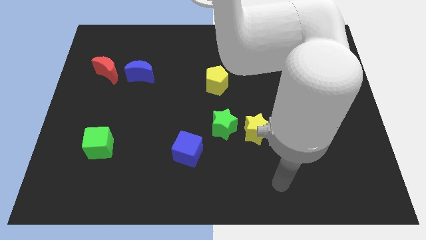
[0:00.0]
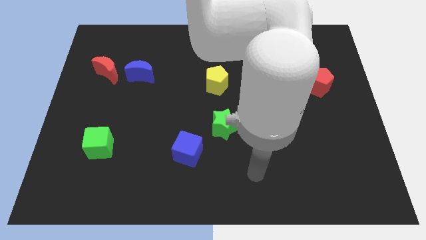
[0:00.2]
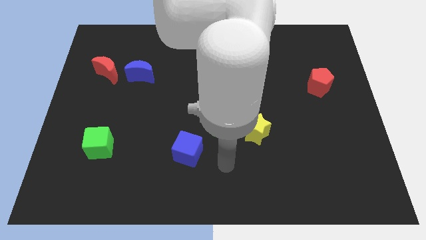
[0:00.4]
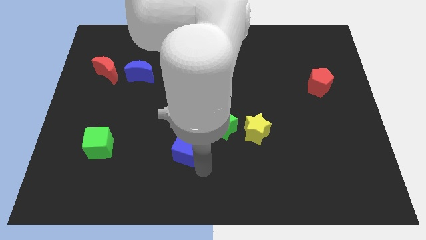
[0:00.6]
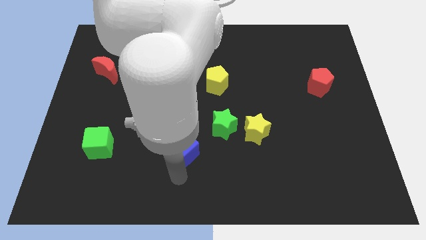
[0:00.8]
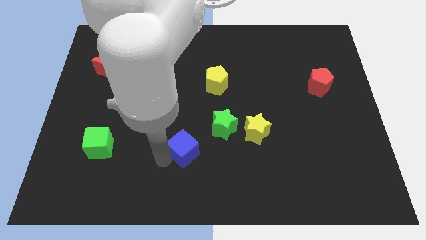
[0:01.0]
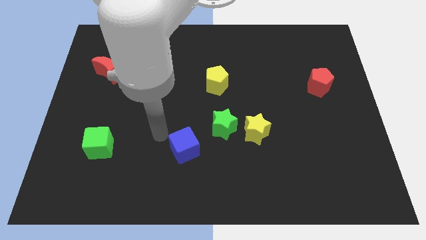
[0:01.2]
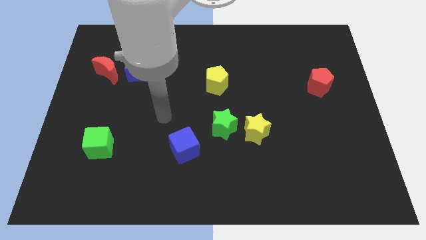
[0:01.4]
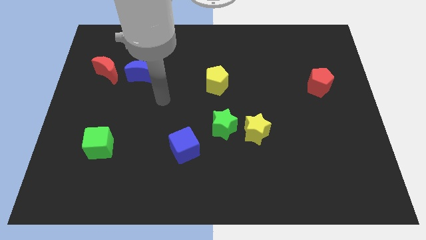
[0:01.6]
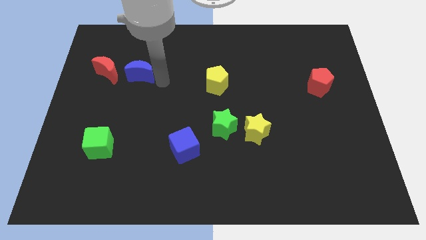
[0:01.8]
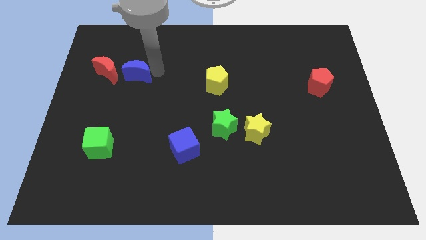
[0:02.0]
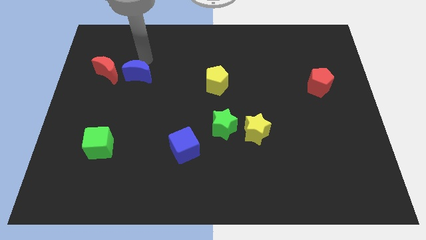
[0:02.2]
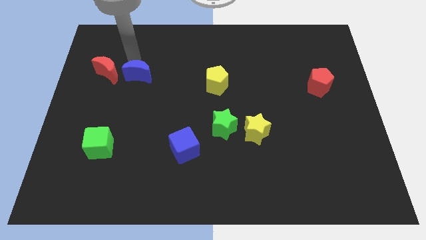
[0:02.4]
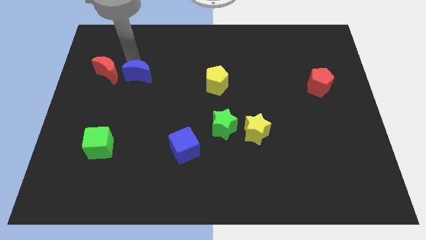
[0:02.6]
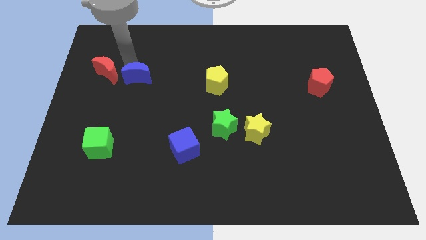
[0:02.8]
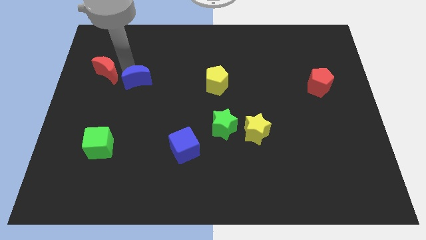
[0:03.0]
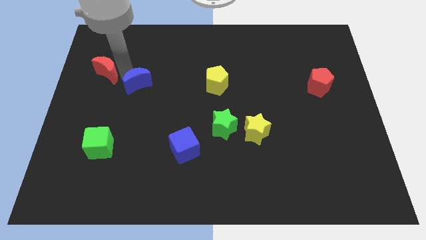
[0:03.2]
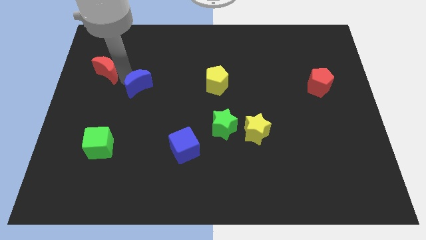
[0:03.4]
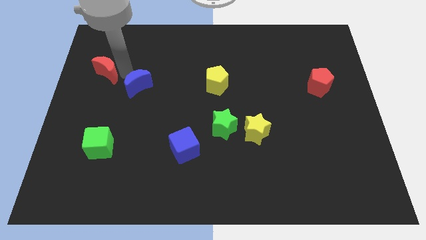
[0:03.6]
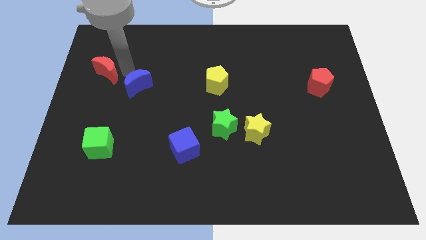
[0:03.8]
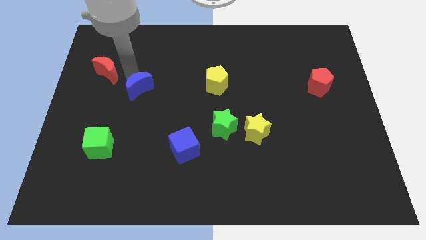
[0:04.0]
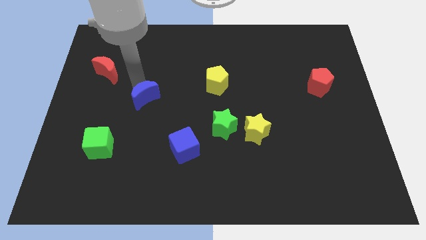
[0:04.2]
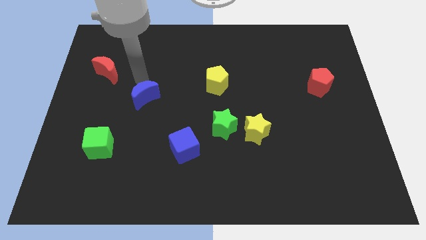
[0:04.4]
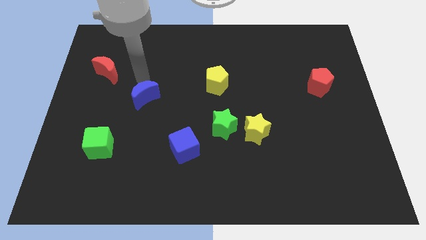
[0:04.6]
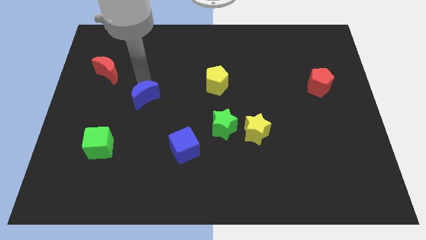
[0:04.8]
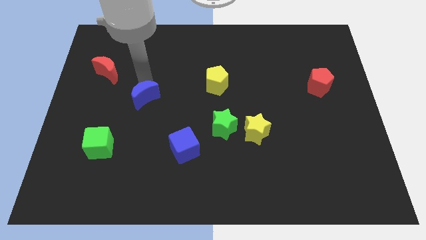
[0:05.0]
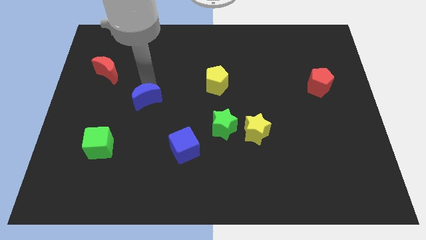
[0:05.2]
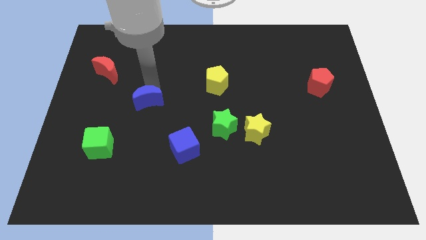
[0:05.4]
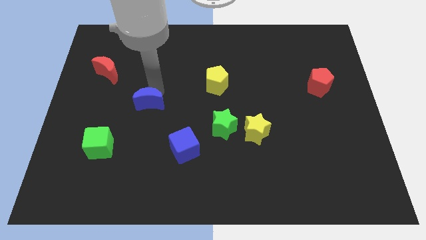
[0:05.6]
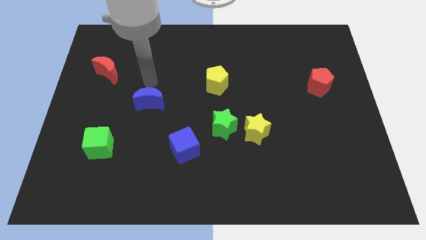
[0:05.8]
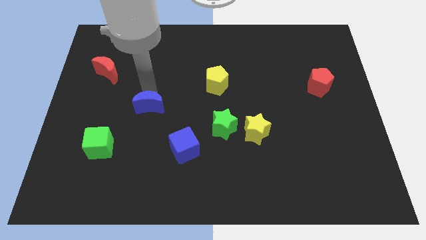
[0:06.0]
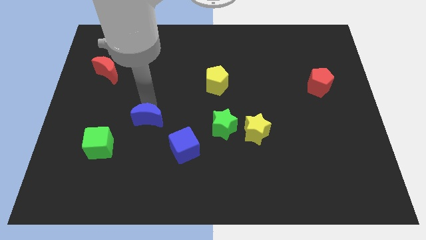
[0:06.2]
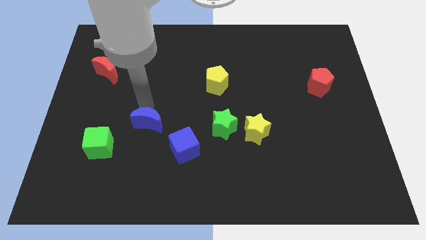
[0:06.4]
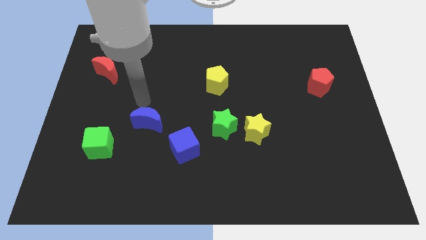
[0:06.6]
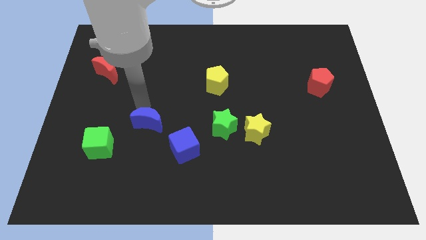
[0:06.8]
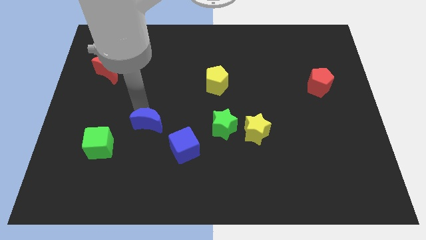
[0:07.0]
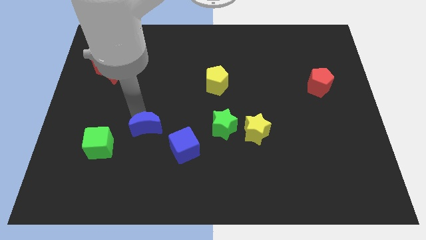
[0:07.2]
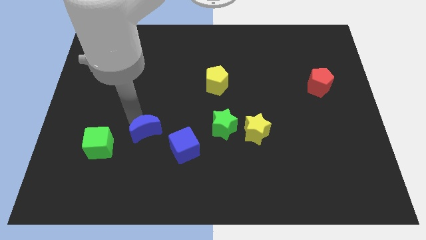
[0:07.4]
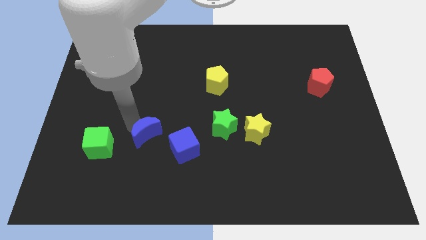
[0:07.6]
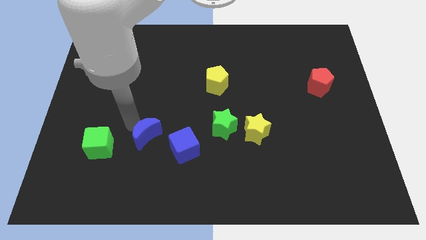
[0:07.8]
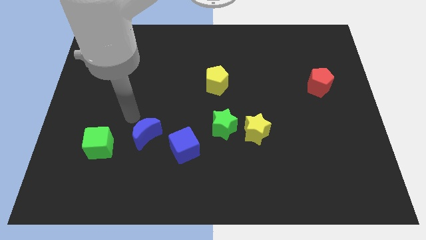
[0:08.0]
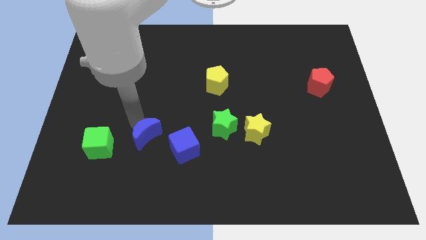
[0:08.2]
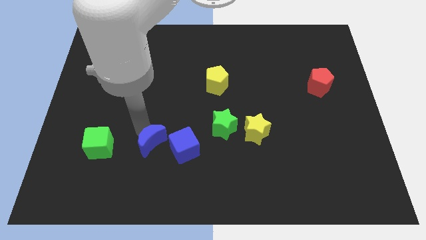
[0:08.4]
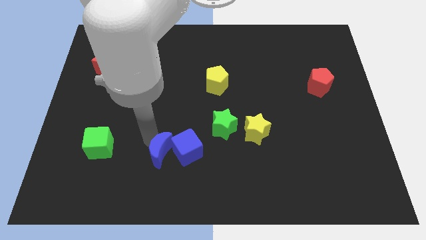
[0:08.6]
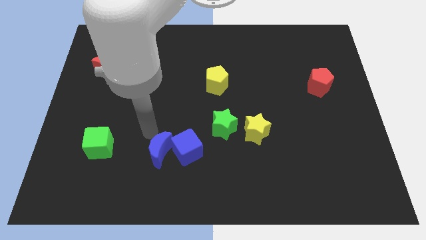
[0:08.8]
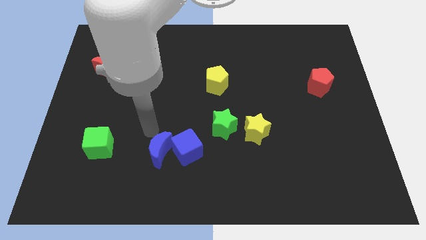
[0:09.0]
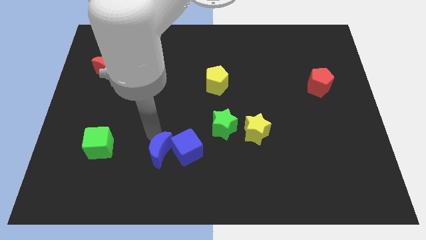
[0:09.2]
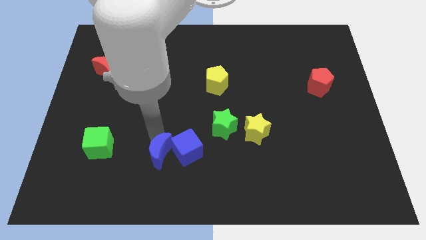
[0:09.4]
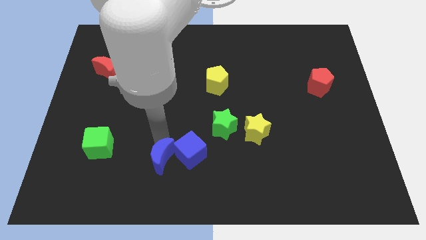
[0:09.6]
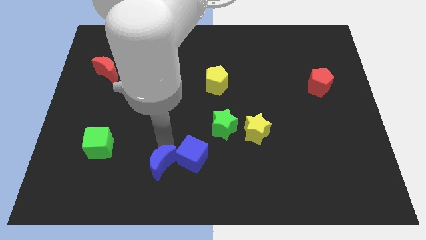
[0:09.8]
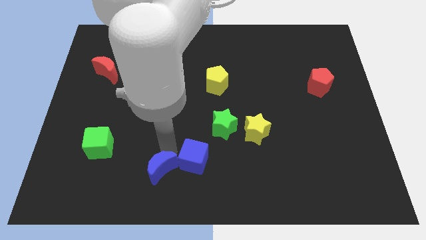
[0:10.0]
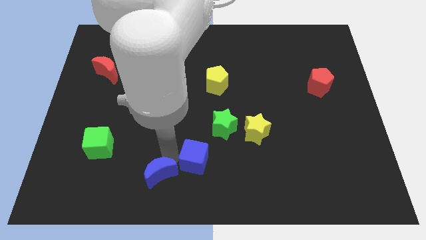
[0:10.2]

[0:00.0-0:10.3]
move the blue moon to the bottom side

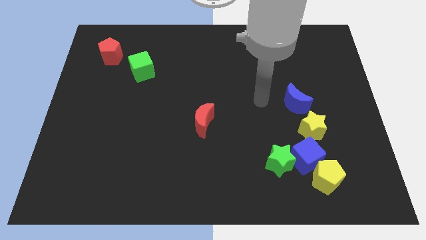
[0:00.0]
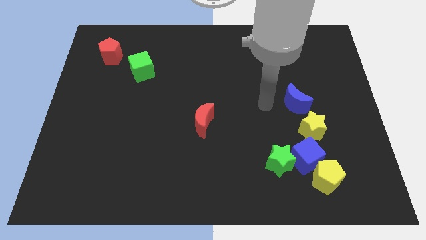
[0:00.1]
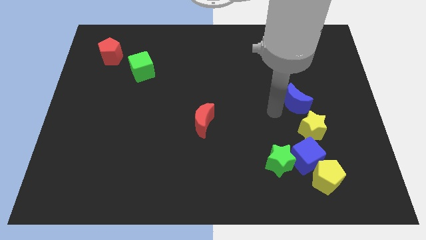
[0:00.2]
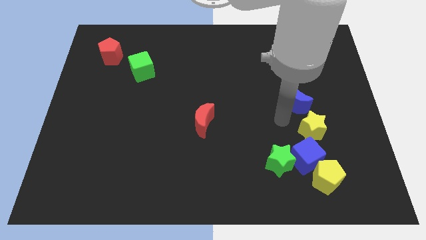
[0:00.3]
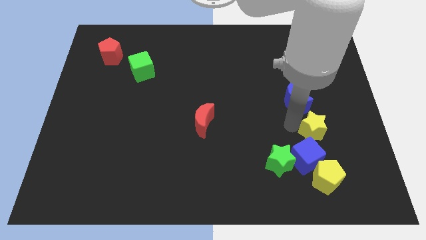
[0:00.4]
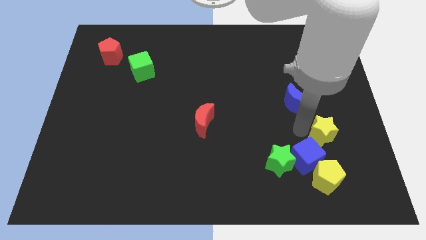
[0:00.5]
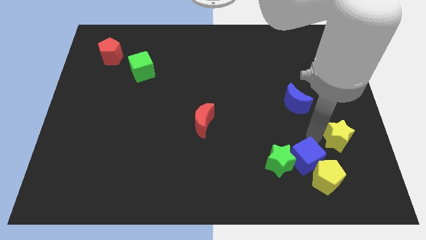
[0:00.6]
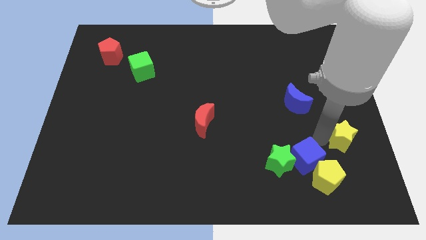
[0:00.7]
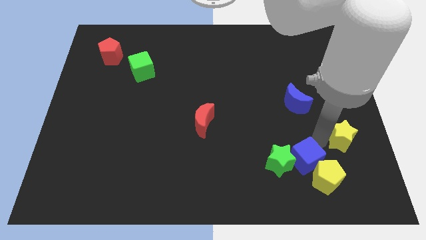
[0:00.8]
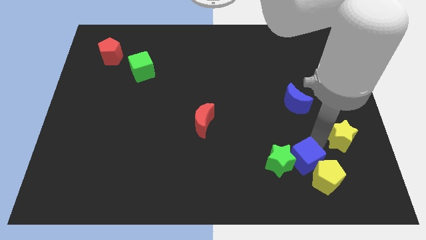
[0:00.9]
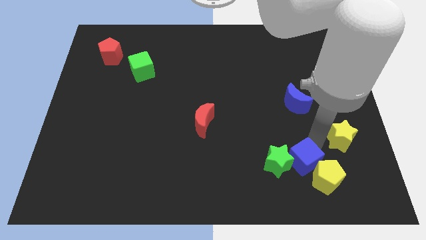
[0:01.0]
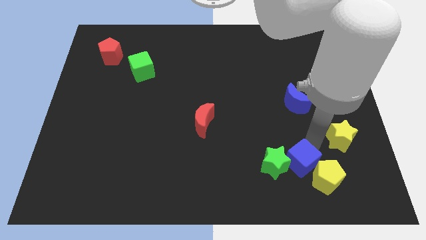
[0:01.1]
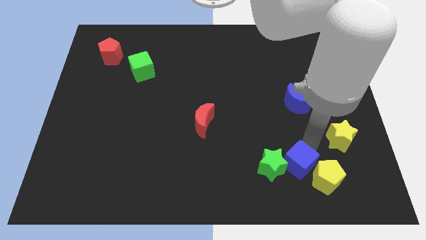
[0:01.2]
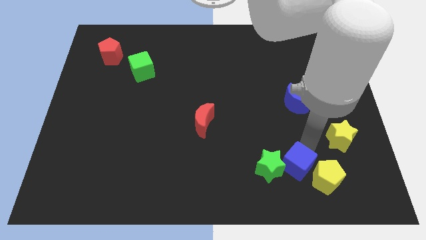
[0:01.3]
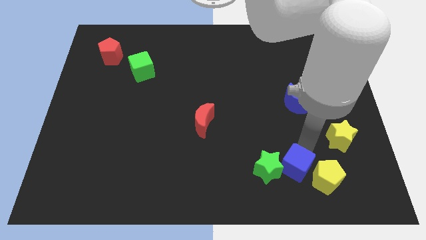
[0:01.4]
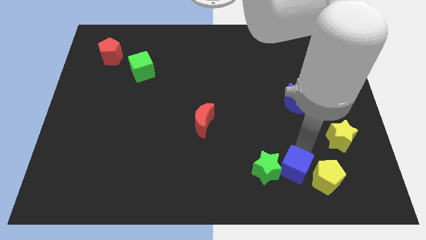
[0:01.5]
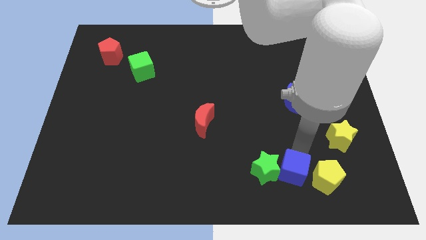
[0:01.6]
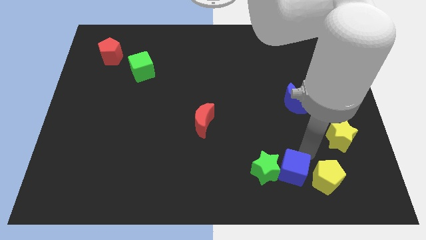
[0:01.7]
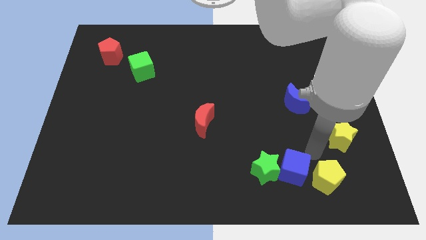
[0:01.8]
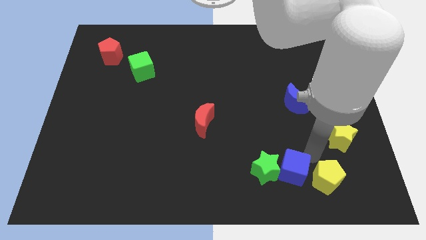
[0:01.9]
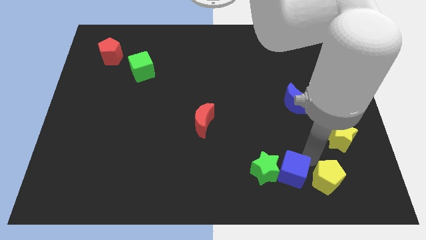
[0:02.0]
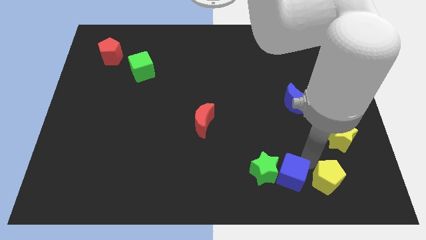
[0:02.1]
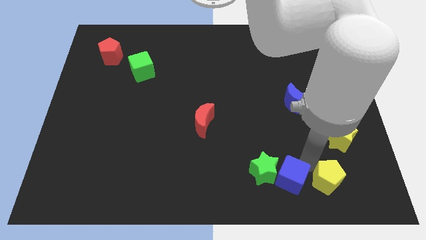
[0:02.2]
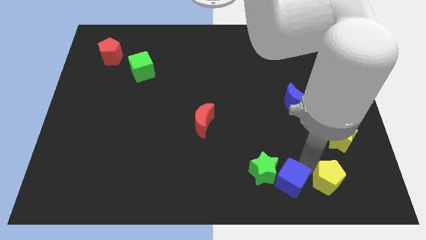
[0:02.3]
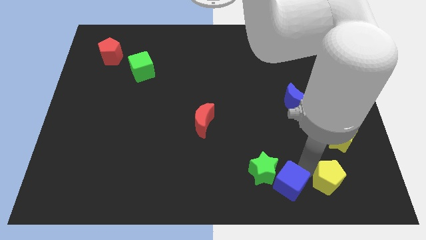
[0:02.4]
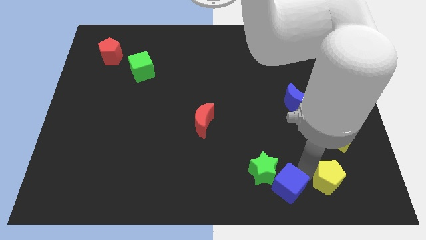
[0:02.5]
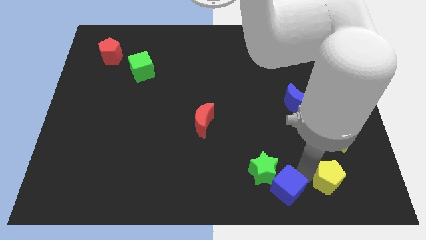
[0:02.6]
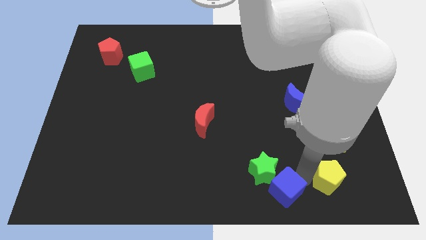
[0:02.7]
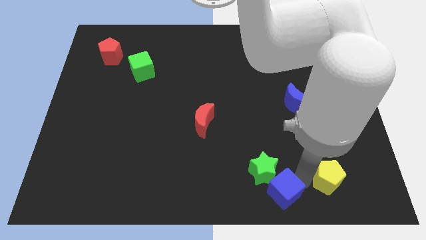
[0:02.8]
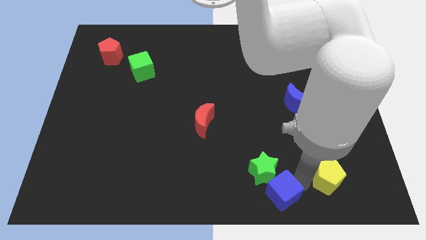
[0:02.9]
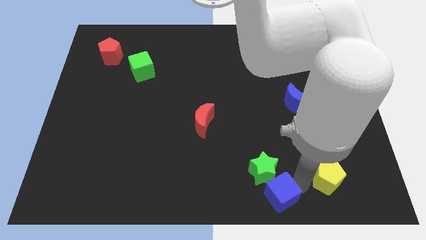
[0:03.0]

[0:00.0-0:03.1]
slide the blue cube to the bottom side
